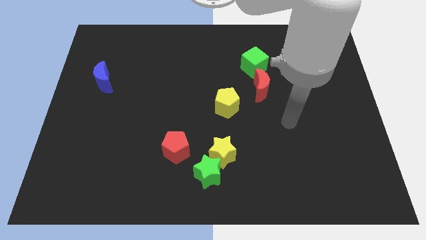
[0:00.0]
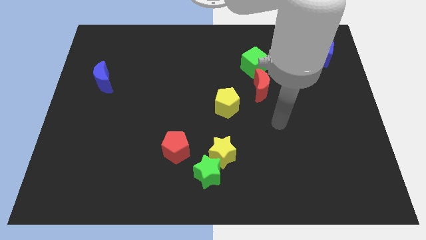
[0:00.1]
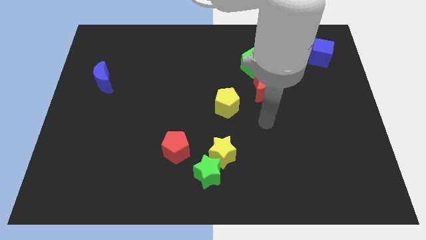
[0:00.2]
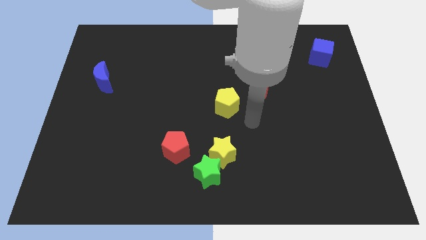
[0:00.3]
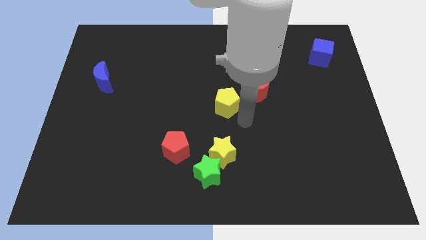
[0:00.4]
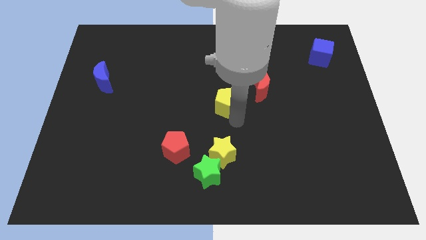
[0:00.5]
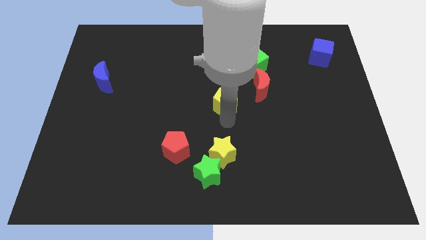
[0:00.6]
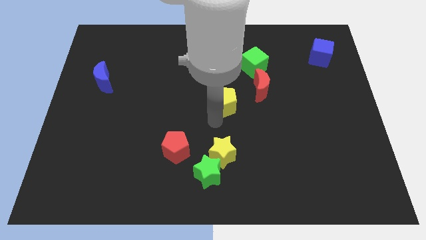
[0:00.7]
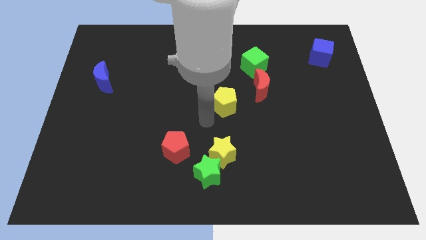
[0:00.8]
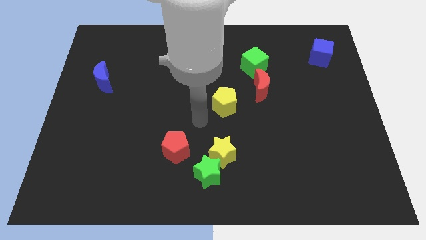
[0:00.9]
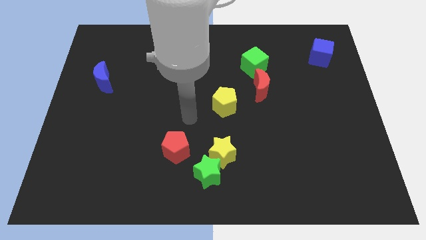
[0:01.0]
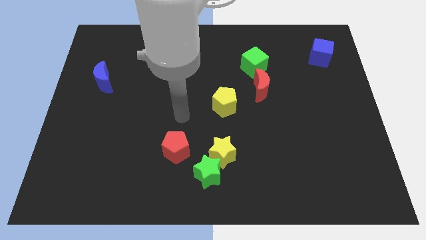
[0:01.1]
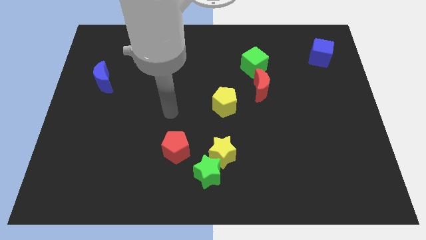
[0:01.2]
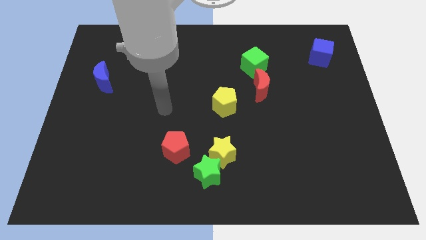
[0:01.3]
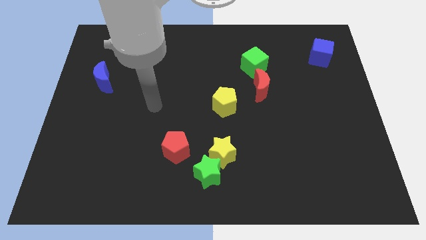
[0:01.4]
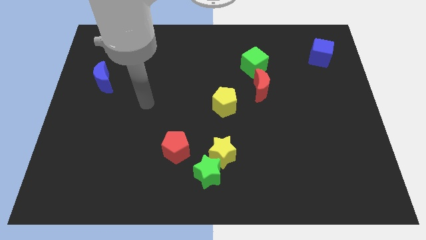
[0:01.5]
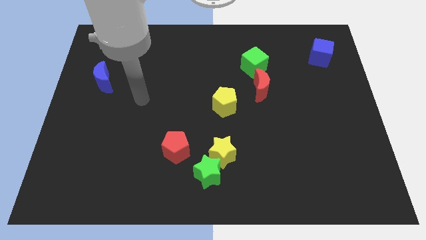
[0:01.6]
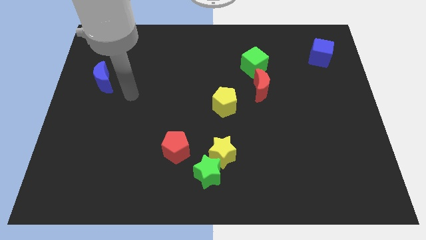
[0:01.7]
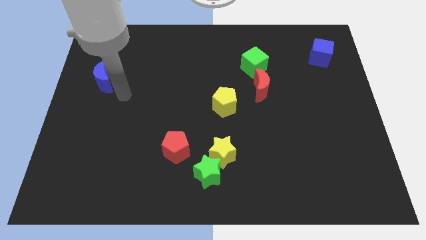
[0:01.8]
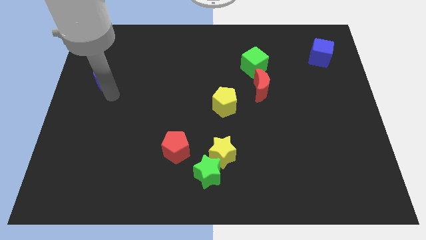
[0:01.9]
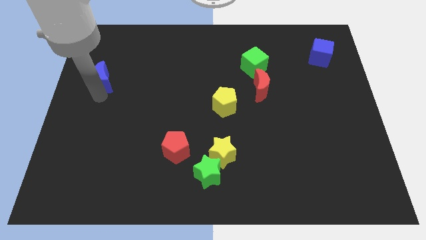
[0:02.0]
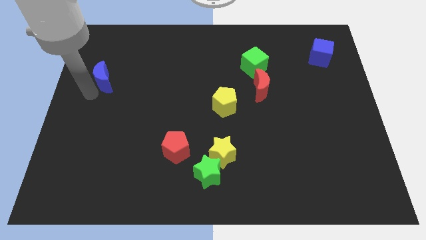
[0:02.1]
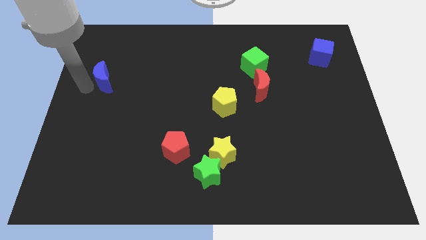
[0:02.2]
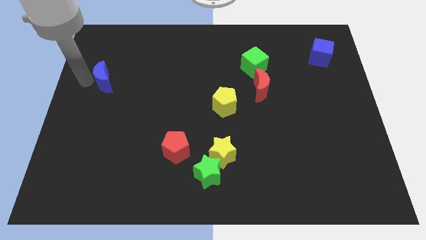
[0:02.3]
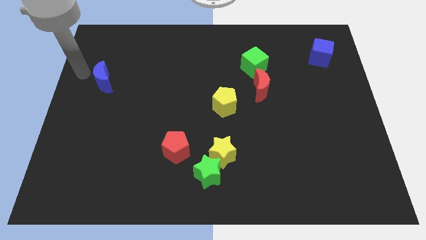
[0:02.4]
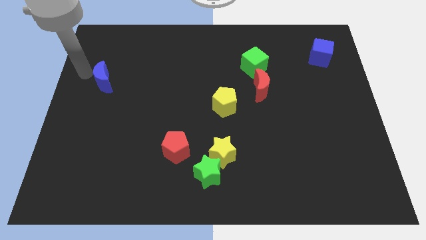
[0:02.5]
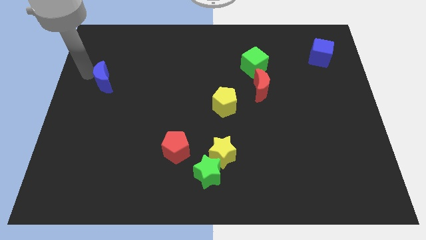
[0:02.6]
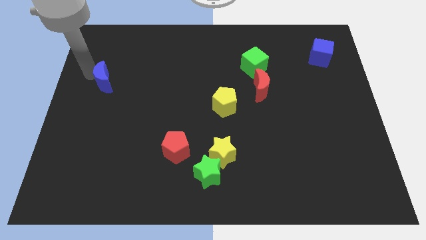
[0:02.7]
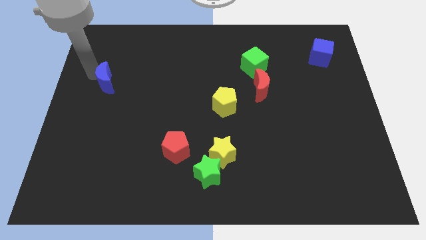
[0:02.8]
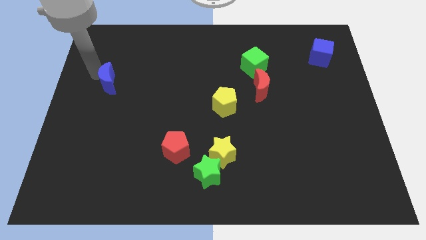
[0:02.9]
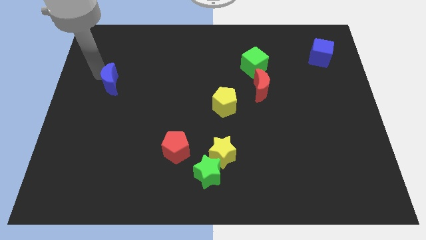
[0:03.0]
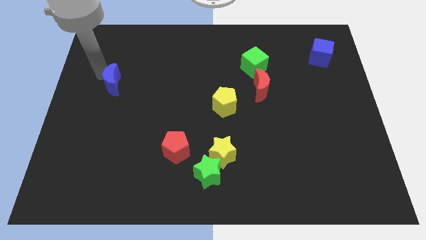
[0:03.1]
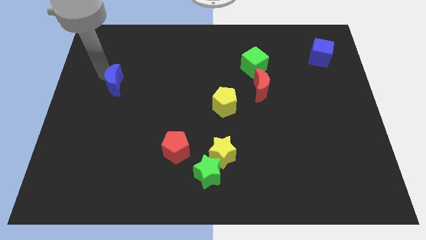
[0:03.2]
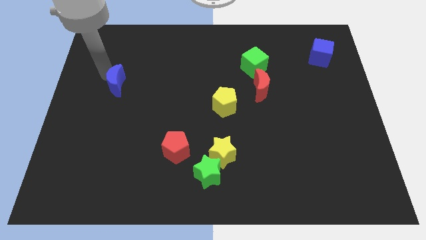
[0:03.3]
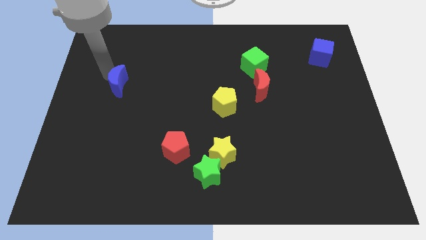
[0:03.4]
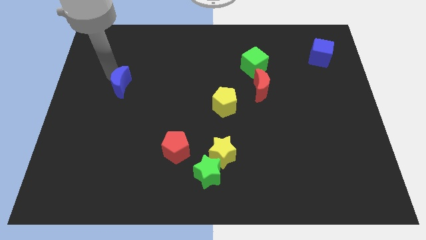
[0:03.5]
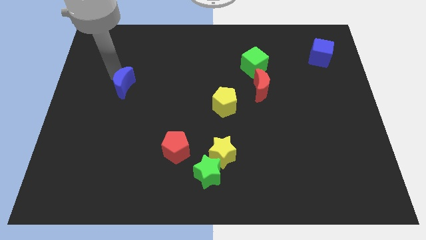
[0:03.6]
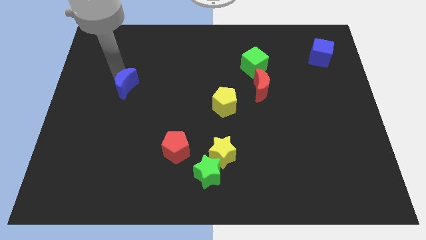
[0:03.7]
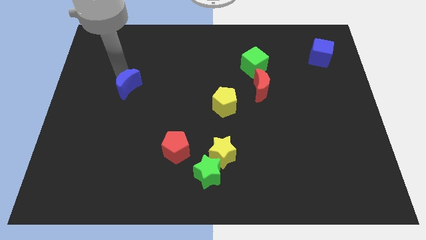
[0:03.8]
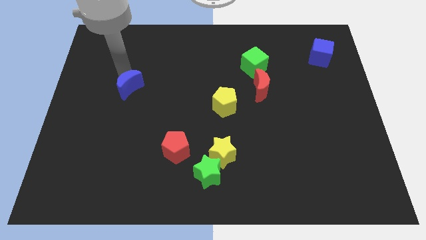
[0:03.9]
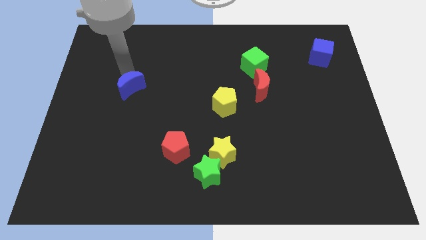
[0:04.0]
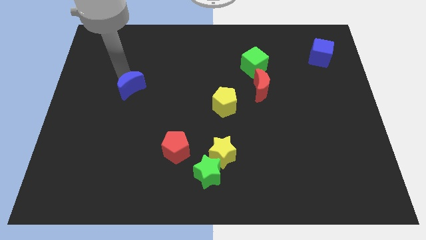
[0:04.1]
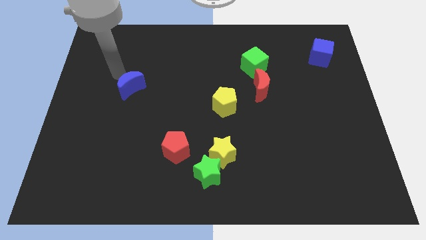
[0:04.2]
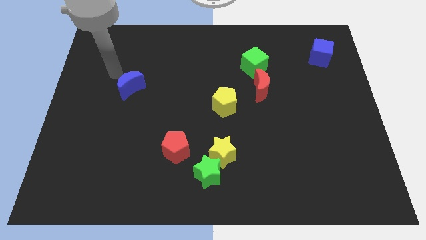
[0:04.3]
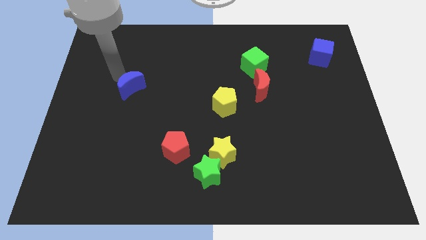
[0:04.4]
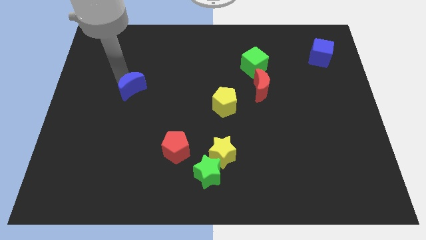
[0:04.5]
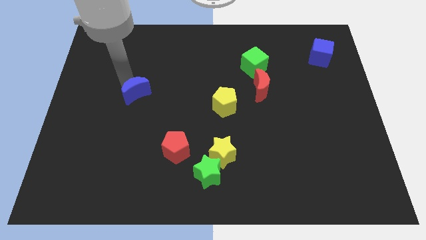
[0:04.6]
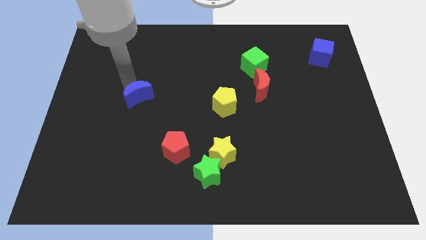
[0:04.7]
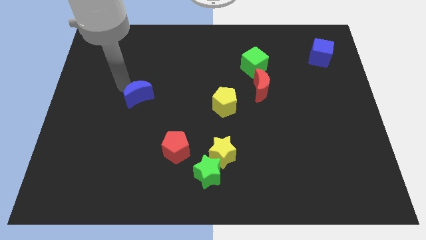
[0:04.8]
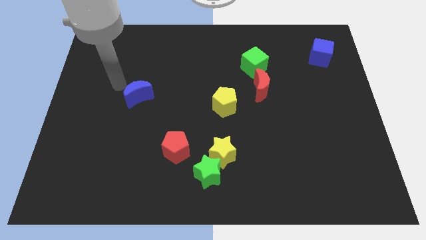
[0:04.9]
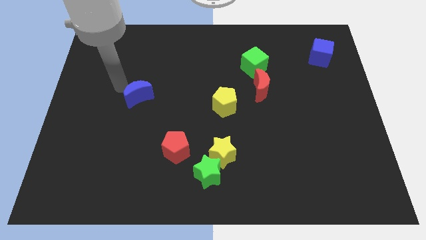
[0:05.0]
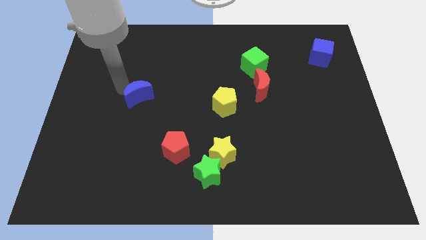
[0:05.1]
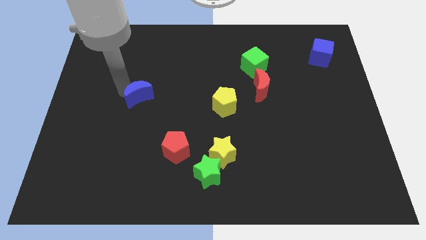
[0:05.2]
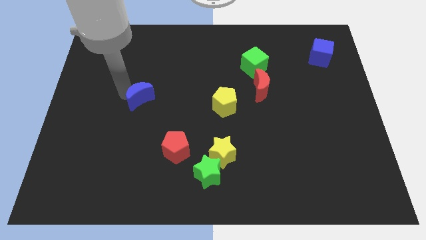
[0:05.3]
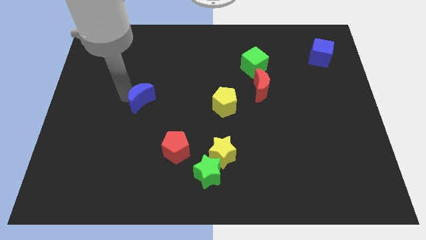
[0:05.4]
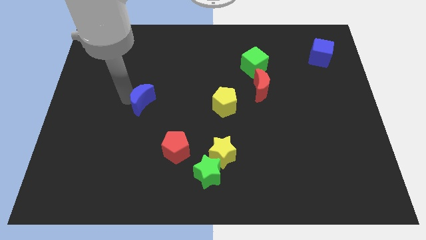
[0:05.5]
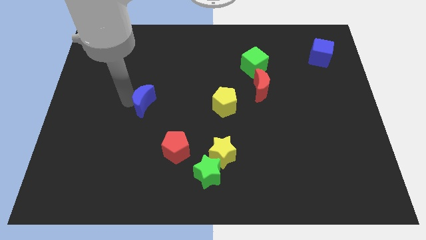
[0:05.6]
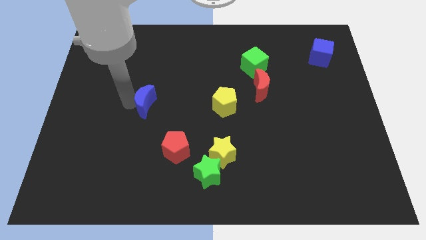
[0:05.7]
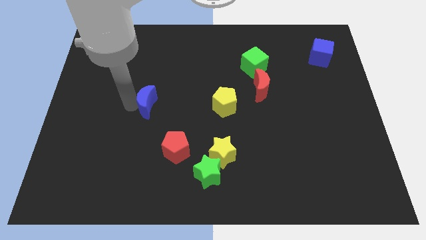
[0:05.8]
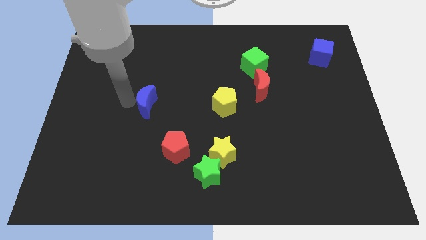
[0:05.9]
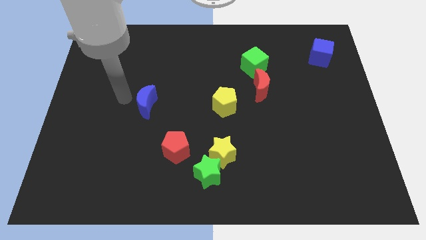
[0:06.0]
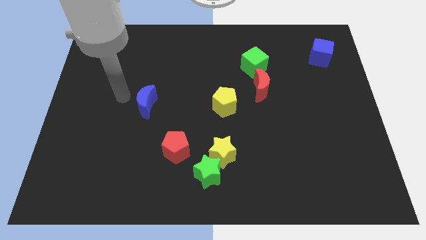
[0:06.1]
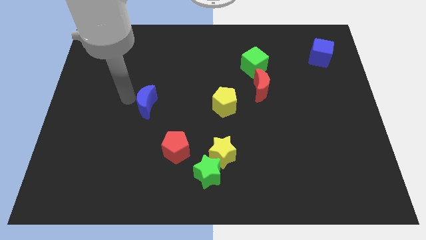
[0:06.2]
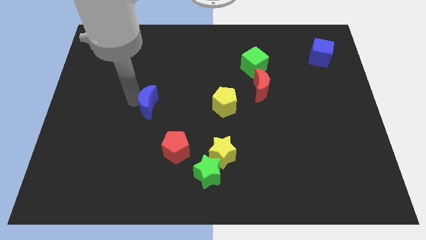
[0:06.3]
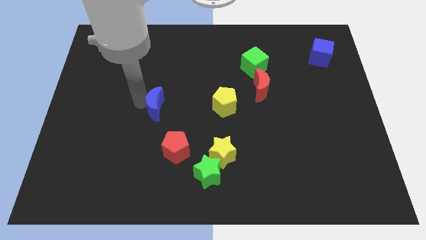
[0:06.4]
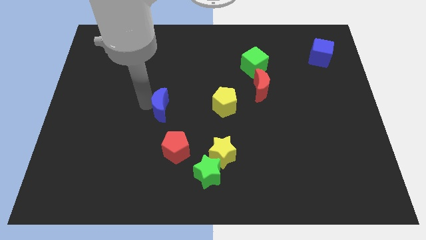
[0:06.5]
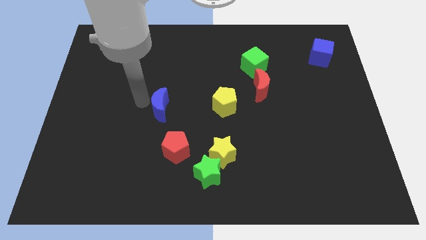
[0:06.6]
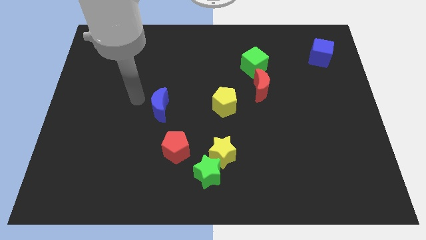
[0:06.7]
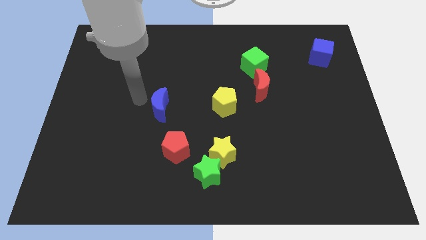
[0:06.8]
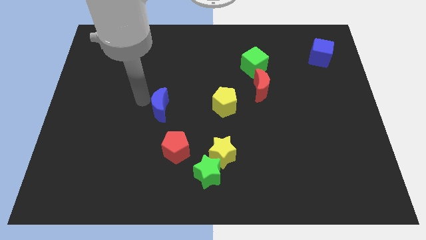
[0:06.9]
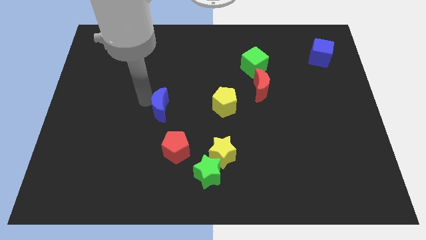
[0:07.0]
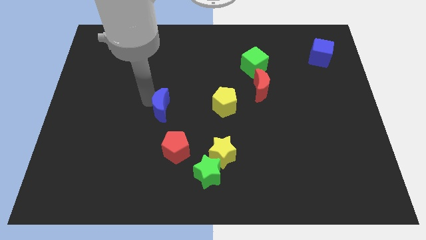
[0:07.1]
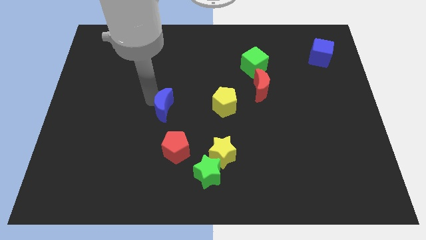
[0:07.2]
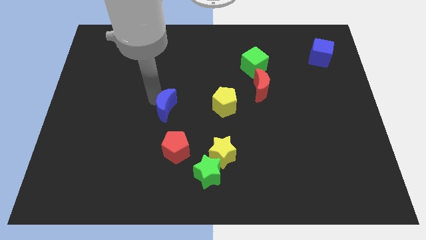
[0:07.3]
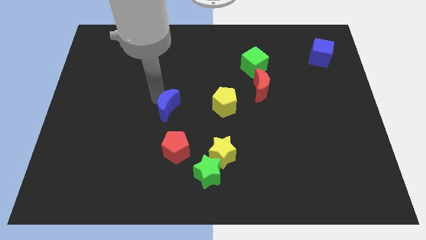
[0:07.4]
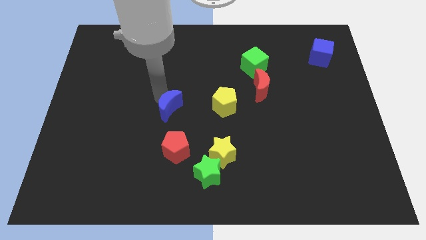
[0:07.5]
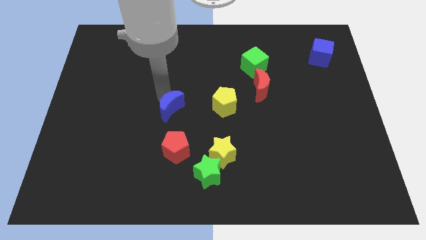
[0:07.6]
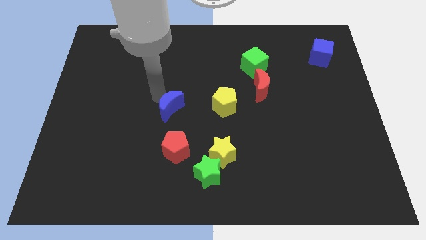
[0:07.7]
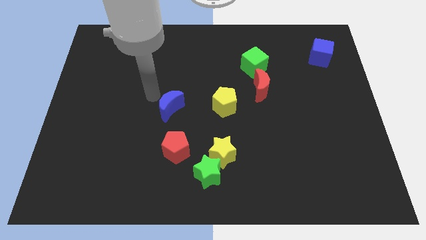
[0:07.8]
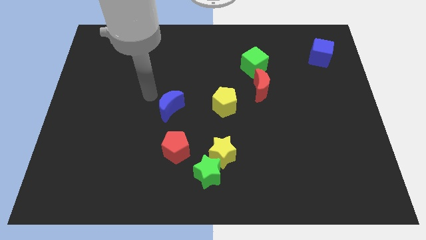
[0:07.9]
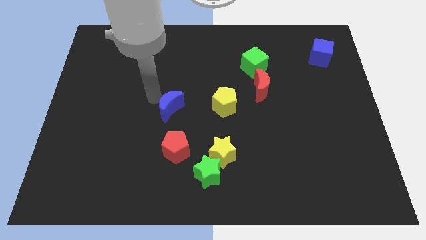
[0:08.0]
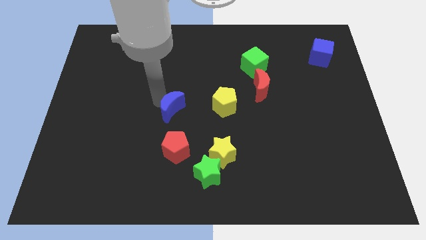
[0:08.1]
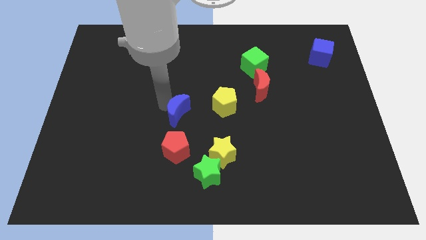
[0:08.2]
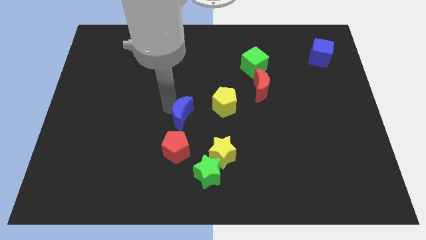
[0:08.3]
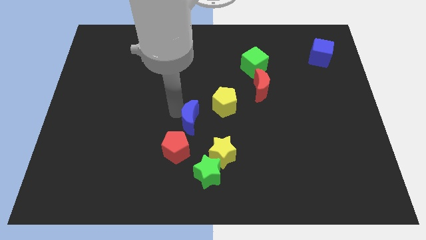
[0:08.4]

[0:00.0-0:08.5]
move the blue moon to the top side of the green star
